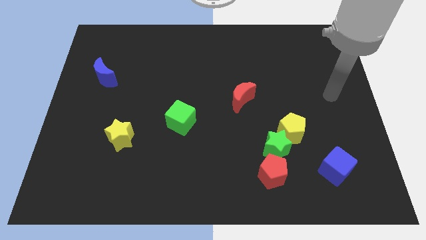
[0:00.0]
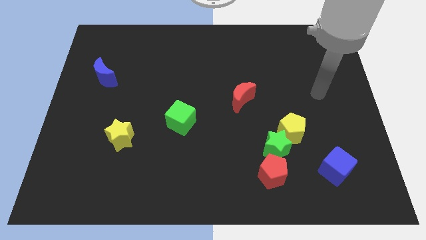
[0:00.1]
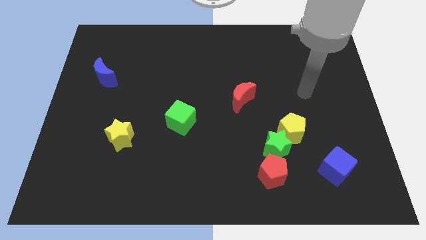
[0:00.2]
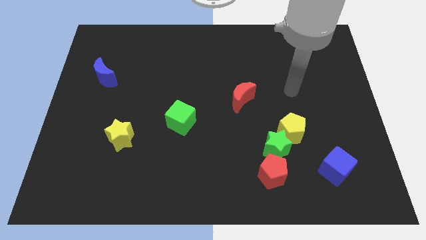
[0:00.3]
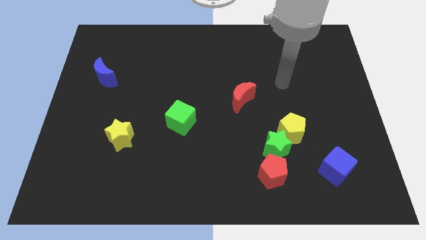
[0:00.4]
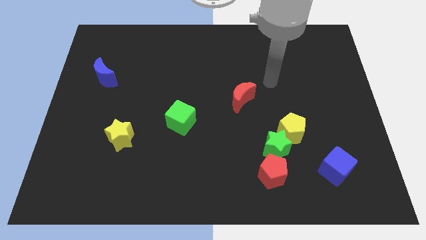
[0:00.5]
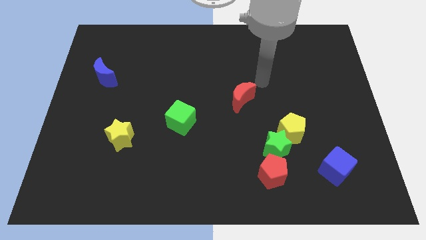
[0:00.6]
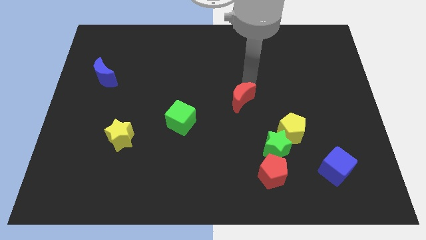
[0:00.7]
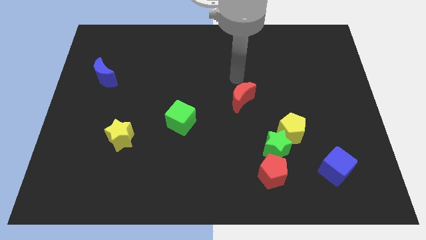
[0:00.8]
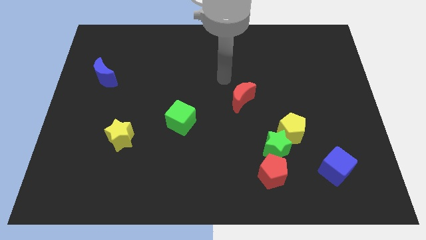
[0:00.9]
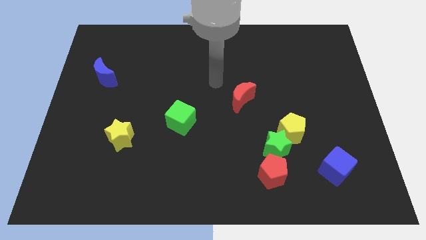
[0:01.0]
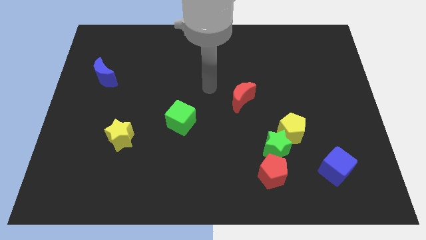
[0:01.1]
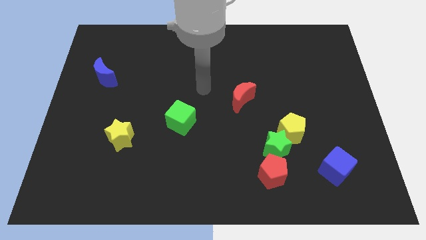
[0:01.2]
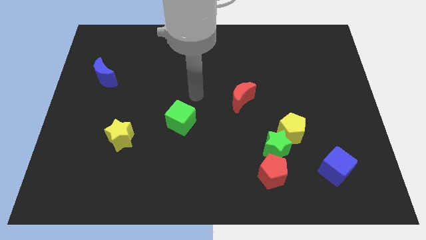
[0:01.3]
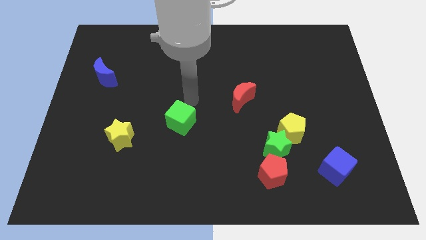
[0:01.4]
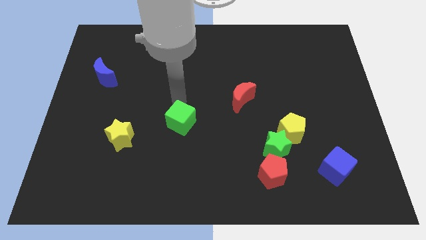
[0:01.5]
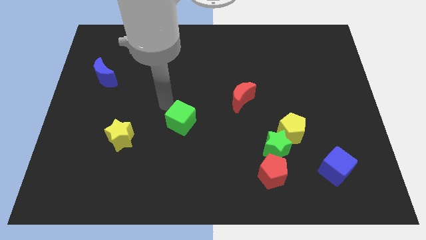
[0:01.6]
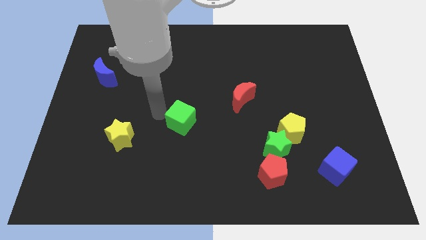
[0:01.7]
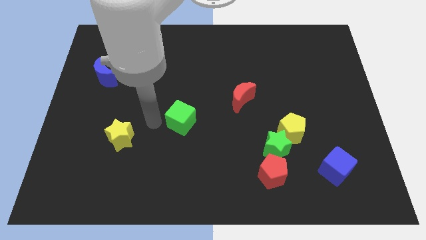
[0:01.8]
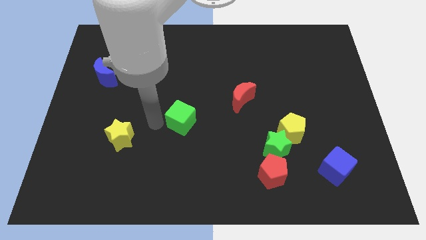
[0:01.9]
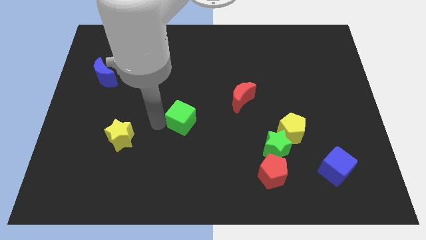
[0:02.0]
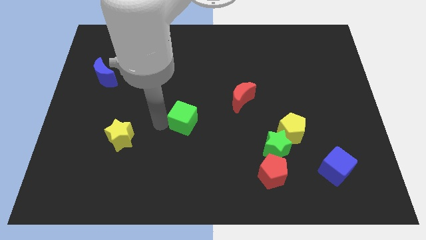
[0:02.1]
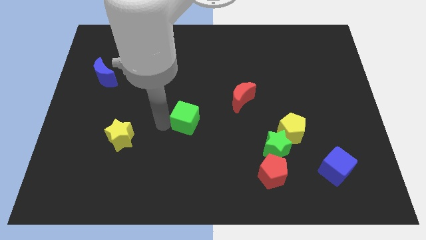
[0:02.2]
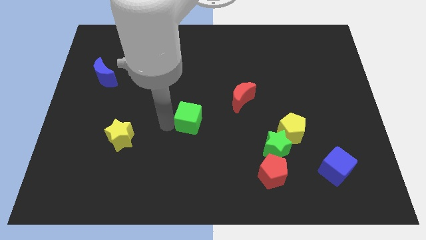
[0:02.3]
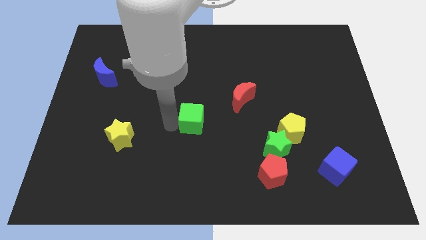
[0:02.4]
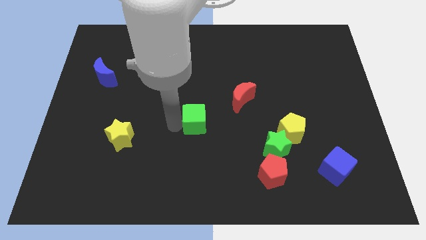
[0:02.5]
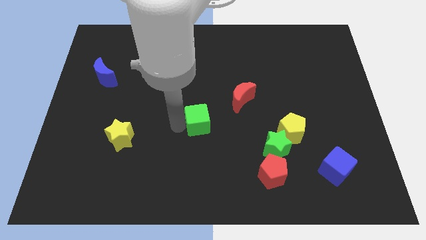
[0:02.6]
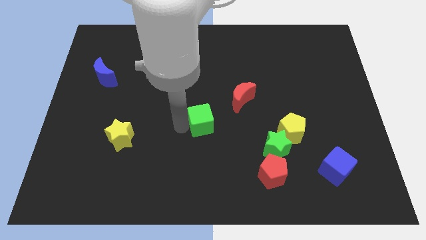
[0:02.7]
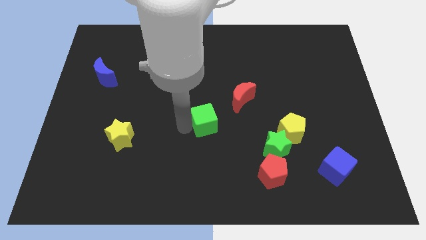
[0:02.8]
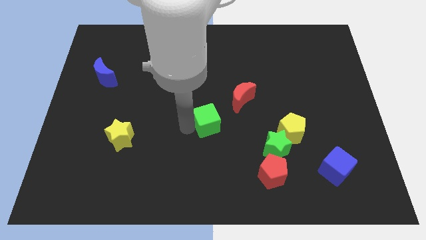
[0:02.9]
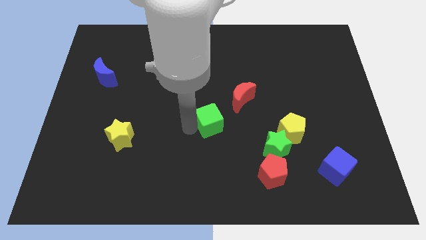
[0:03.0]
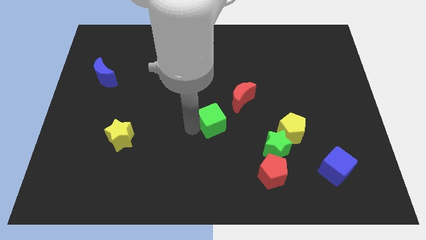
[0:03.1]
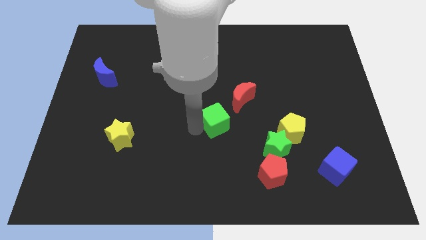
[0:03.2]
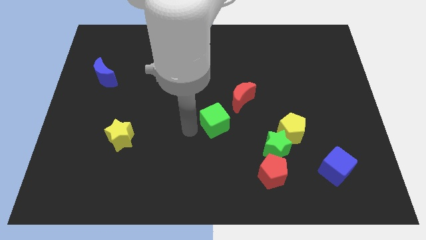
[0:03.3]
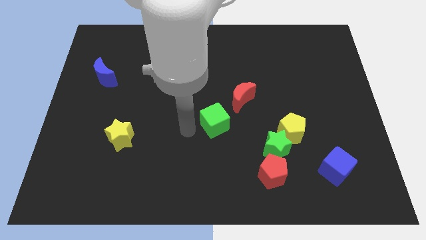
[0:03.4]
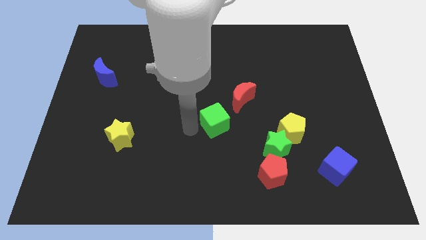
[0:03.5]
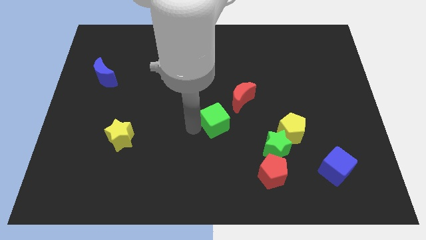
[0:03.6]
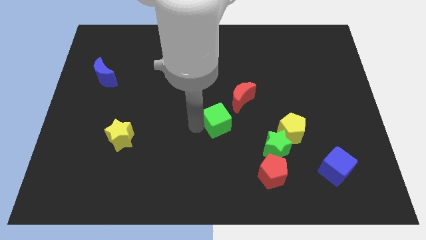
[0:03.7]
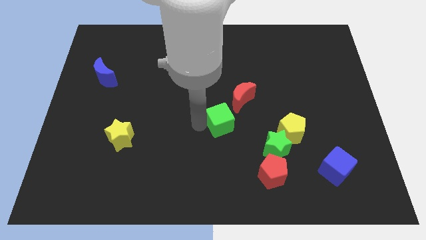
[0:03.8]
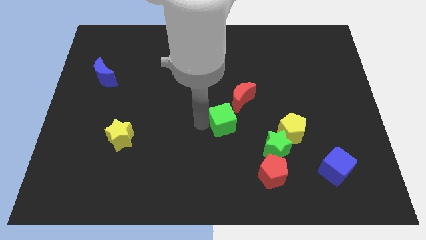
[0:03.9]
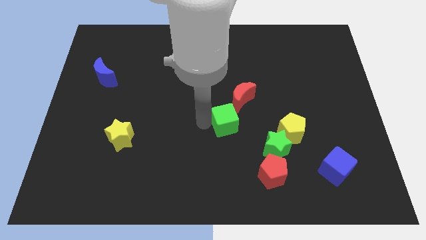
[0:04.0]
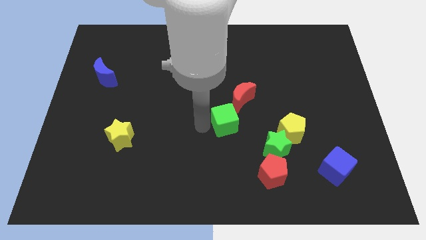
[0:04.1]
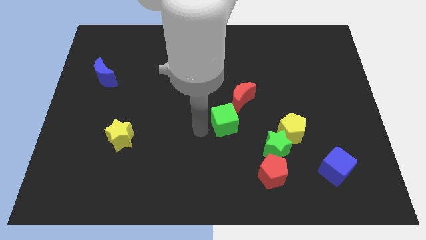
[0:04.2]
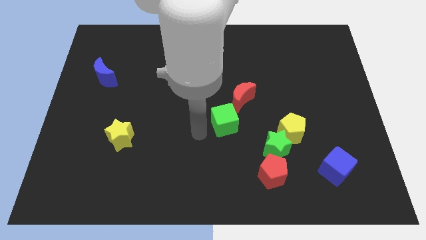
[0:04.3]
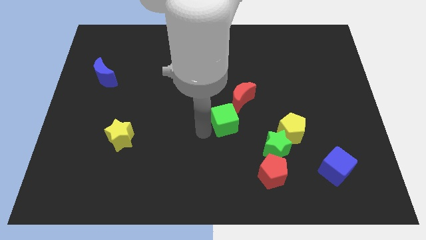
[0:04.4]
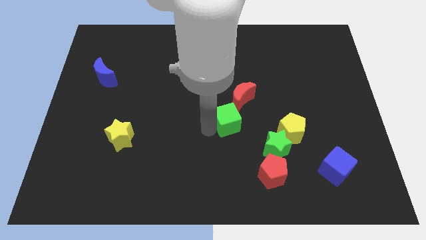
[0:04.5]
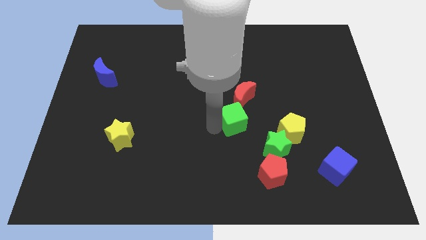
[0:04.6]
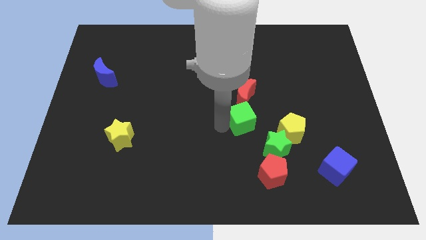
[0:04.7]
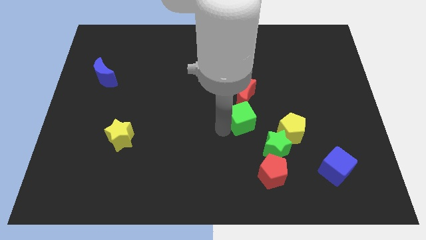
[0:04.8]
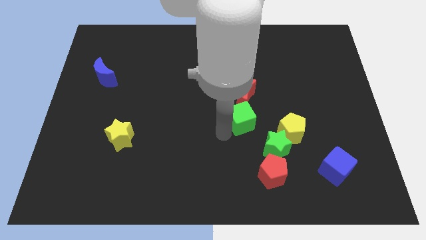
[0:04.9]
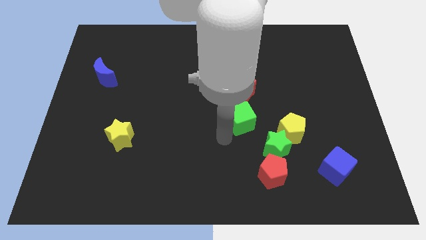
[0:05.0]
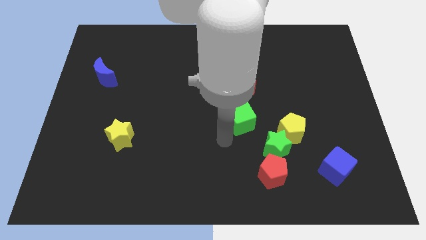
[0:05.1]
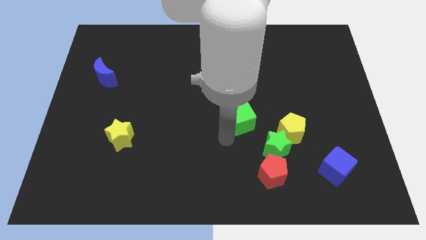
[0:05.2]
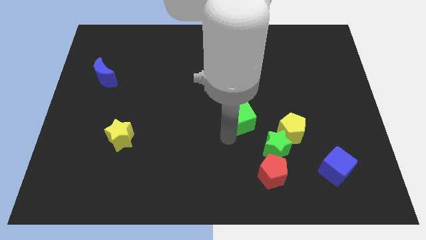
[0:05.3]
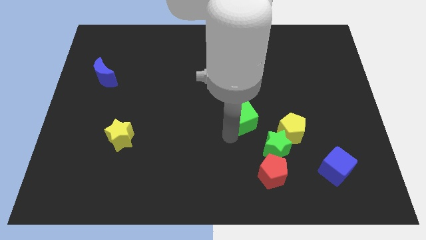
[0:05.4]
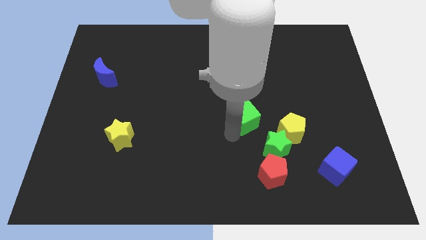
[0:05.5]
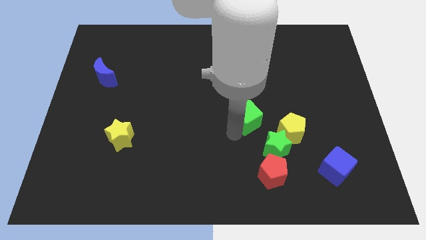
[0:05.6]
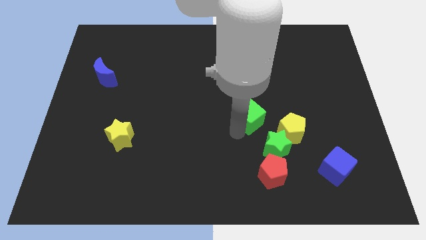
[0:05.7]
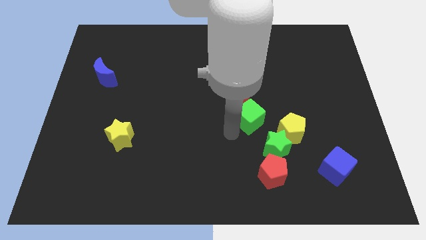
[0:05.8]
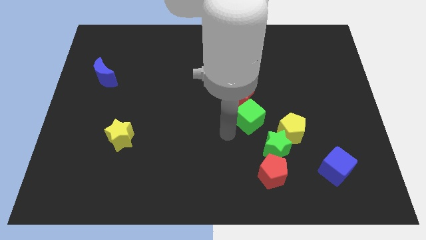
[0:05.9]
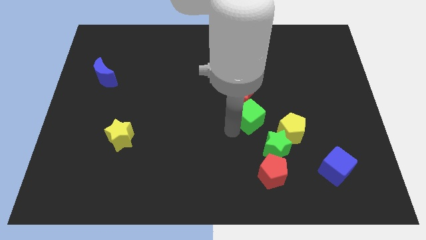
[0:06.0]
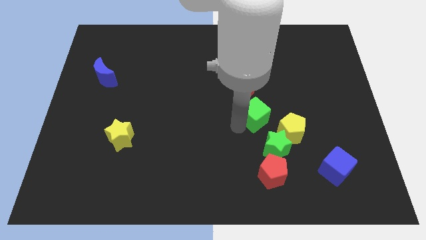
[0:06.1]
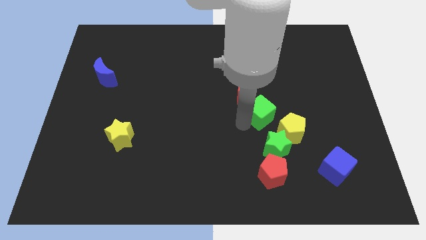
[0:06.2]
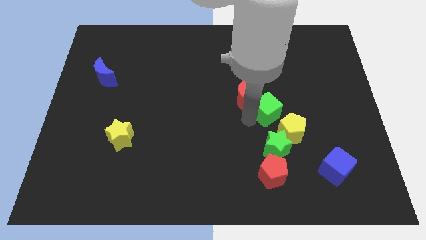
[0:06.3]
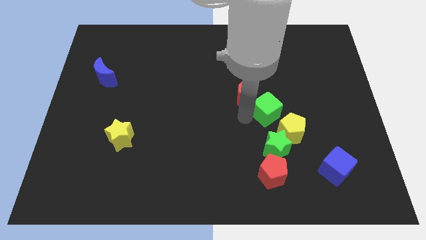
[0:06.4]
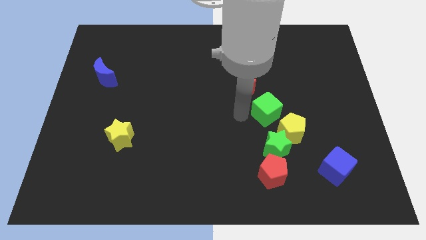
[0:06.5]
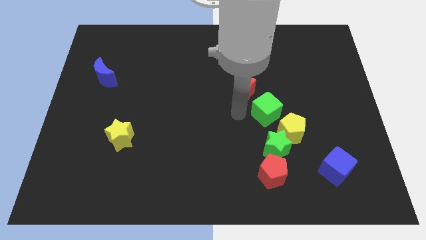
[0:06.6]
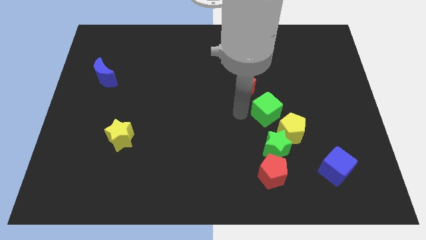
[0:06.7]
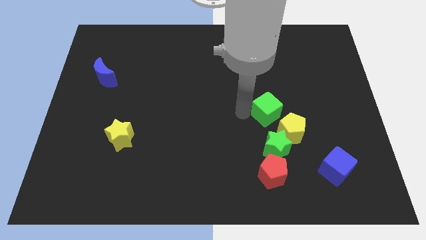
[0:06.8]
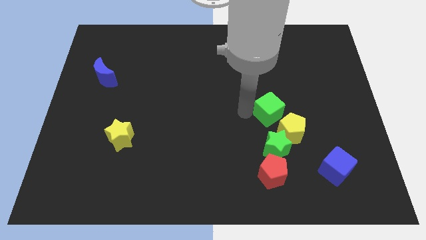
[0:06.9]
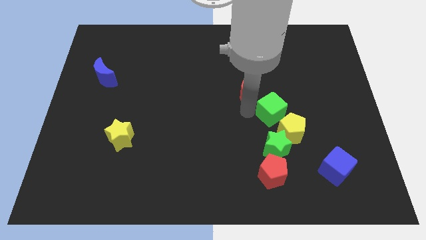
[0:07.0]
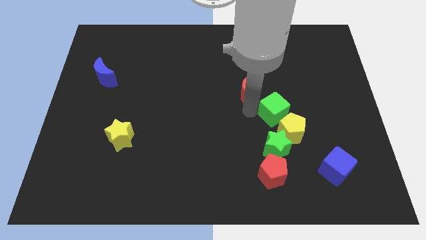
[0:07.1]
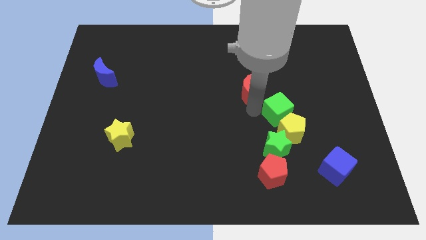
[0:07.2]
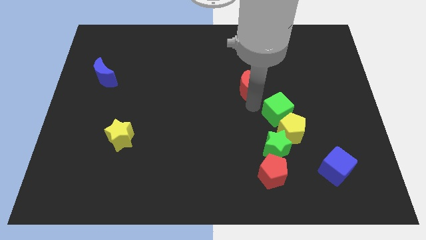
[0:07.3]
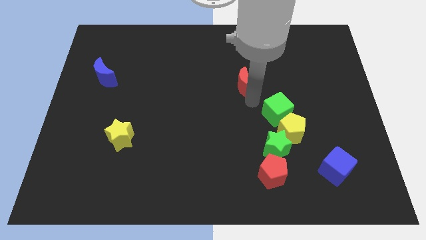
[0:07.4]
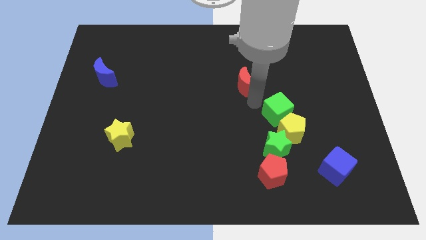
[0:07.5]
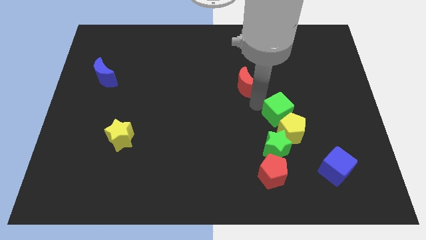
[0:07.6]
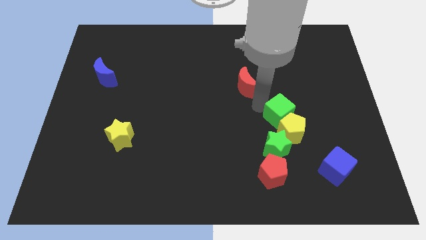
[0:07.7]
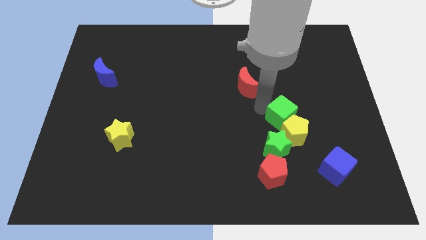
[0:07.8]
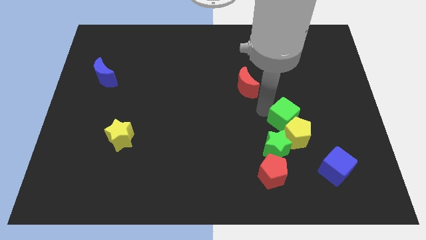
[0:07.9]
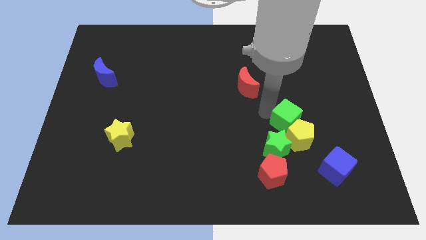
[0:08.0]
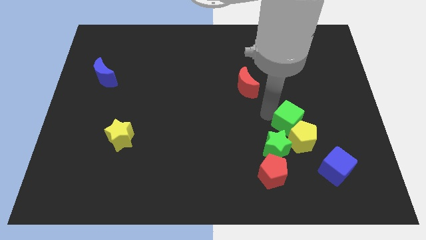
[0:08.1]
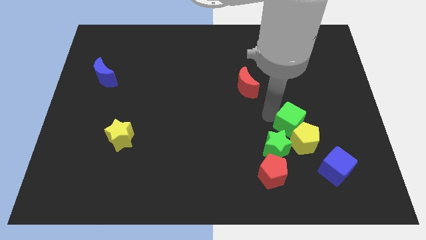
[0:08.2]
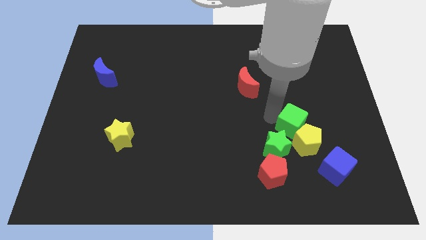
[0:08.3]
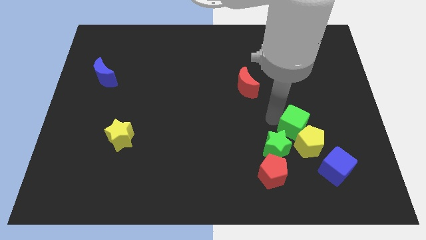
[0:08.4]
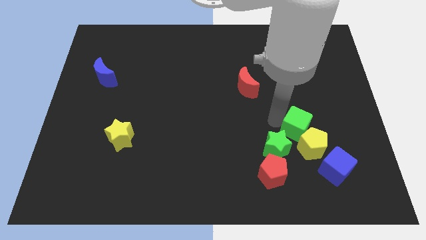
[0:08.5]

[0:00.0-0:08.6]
slide the green cube diagonally up and to the left of the blue cube
